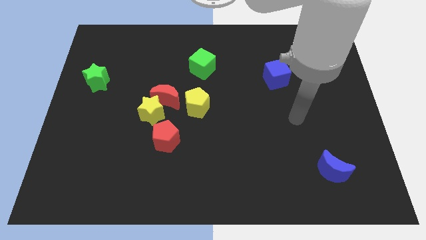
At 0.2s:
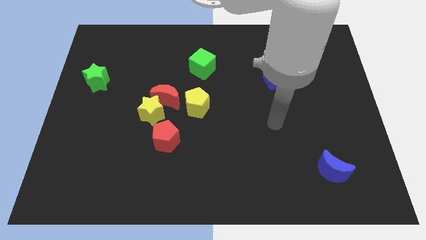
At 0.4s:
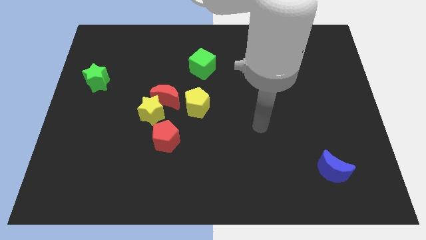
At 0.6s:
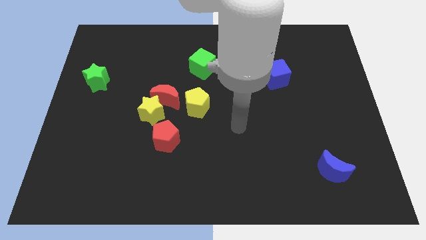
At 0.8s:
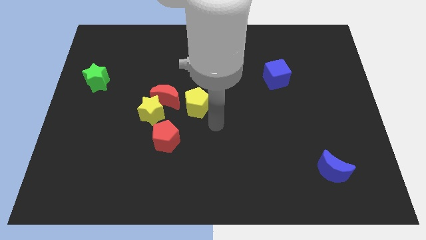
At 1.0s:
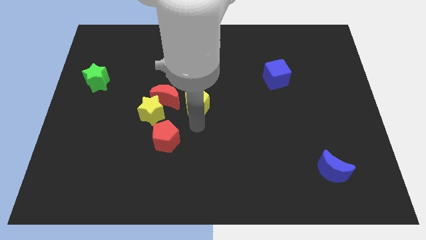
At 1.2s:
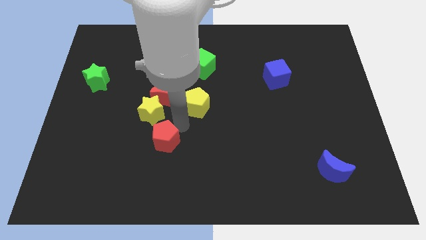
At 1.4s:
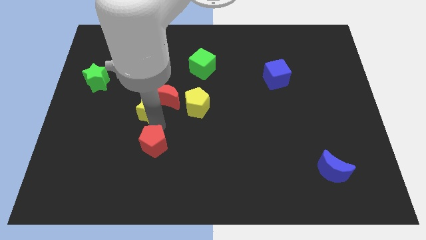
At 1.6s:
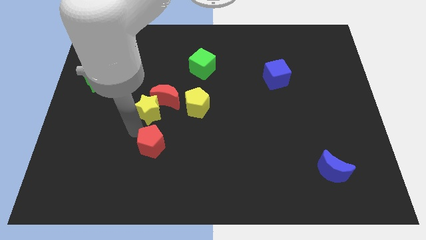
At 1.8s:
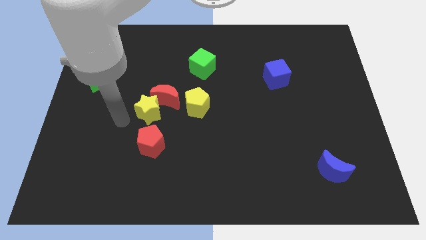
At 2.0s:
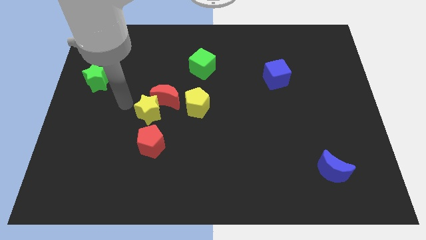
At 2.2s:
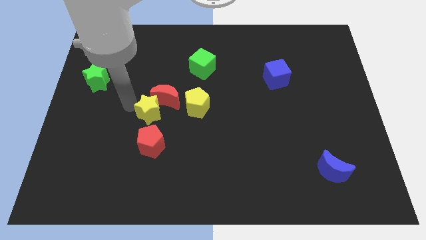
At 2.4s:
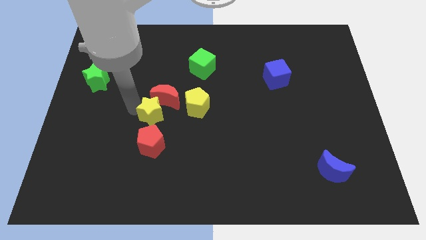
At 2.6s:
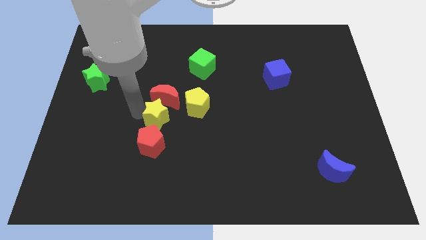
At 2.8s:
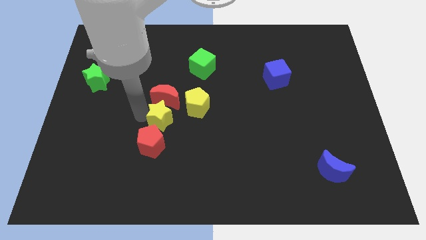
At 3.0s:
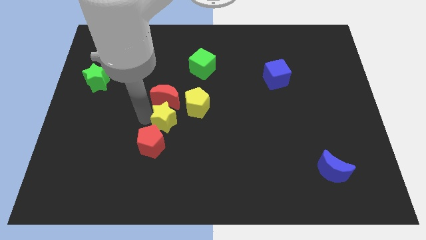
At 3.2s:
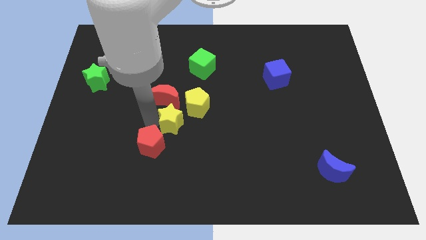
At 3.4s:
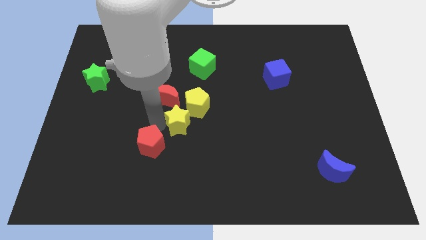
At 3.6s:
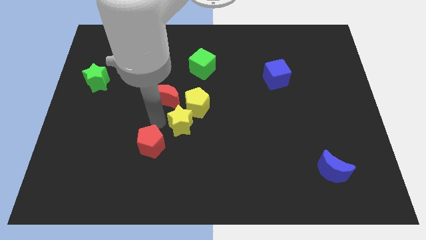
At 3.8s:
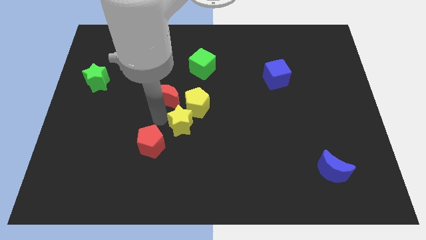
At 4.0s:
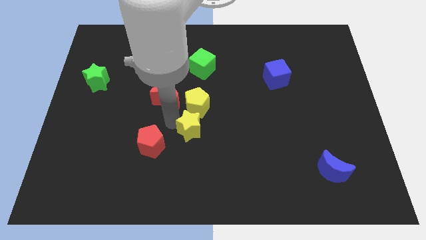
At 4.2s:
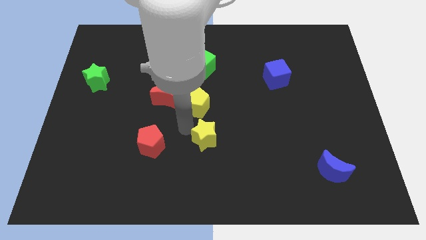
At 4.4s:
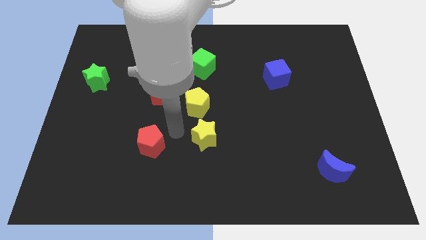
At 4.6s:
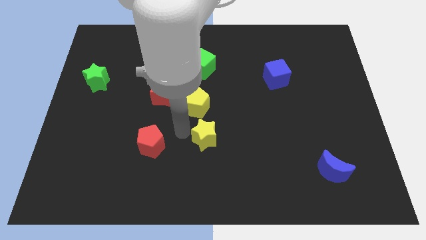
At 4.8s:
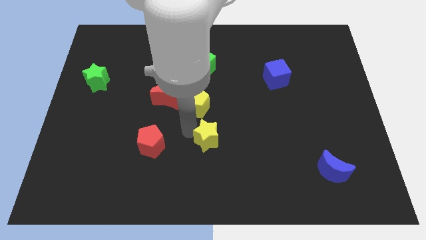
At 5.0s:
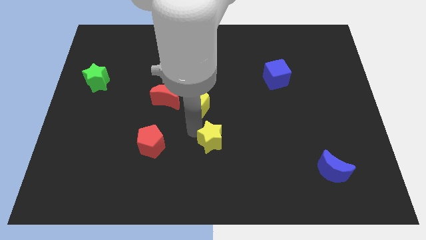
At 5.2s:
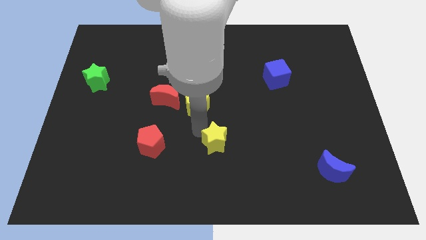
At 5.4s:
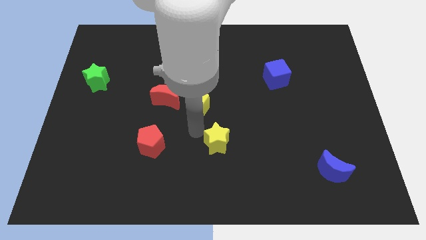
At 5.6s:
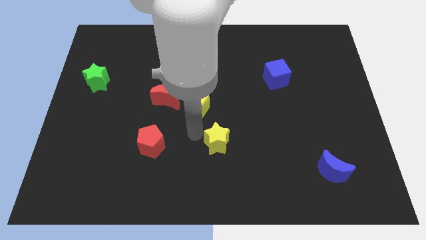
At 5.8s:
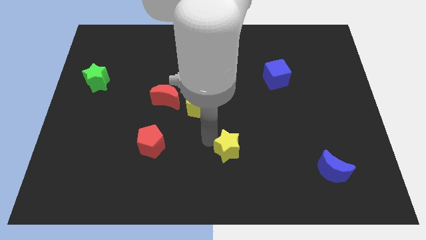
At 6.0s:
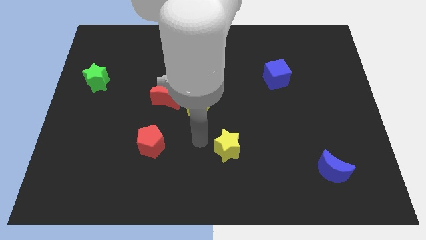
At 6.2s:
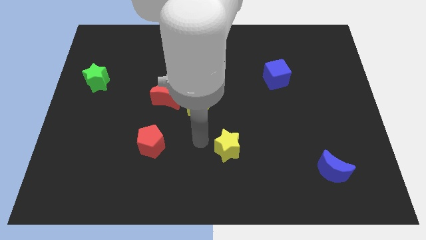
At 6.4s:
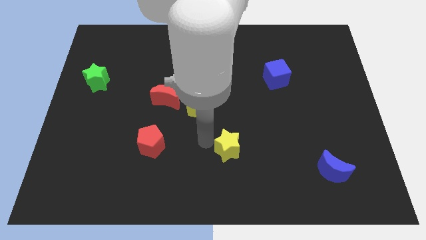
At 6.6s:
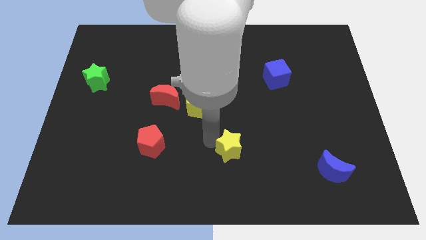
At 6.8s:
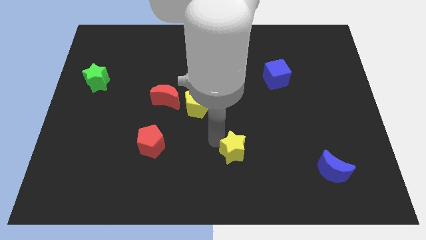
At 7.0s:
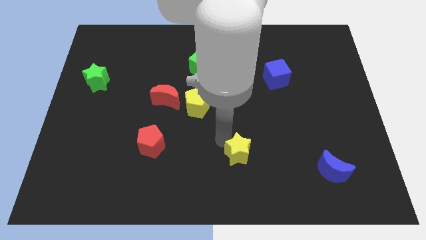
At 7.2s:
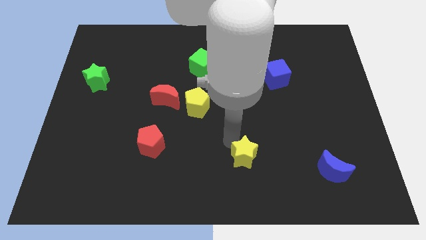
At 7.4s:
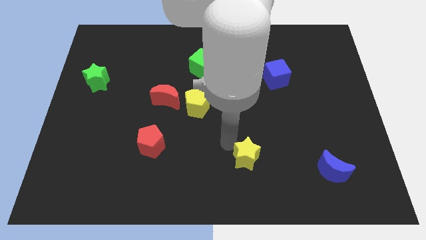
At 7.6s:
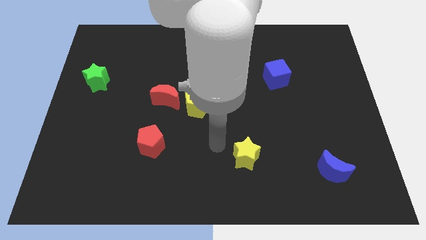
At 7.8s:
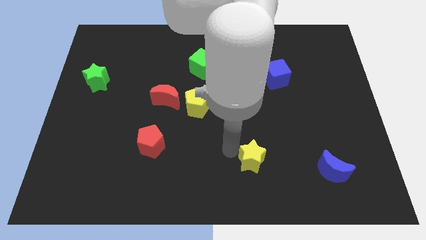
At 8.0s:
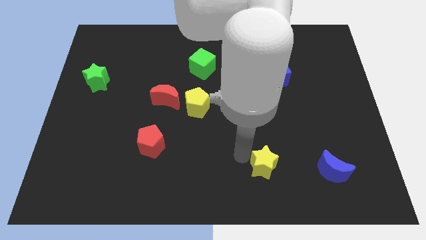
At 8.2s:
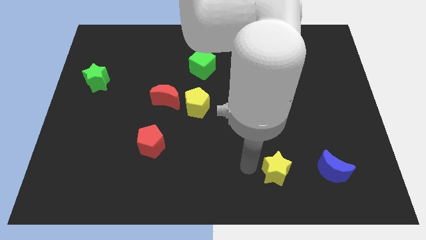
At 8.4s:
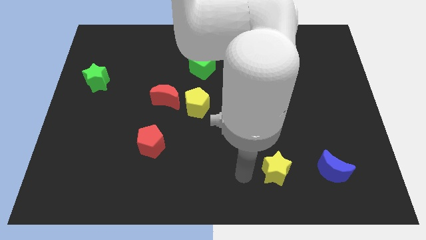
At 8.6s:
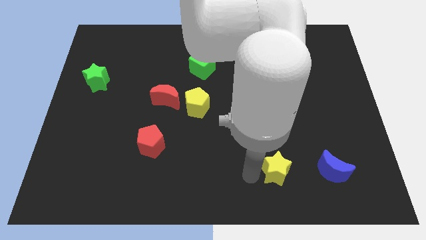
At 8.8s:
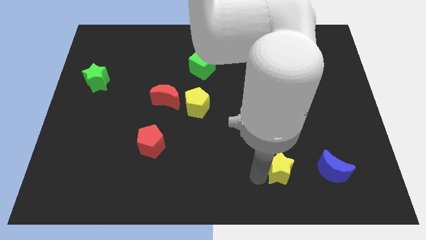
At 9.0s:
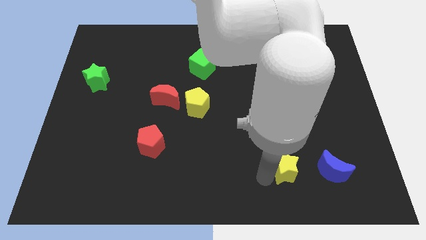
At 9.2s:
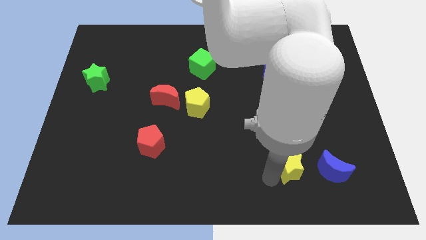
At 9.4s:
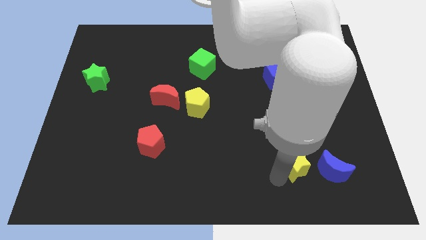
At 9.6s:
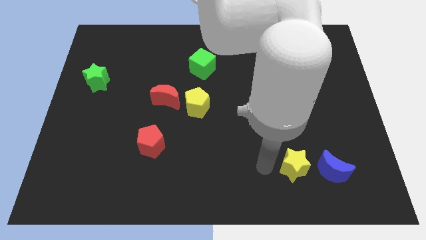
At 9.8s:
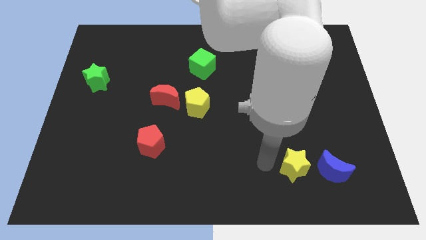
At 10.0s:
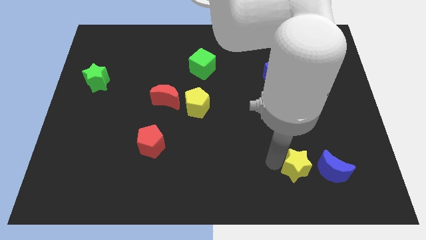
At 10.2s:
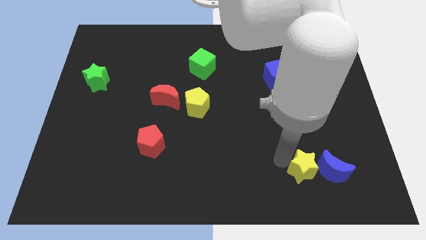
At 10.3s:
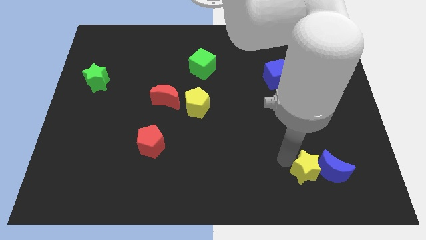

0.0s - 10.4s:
push the yellow star to the blue moon

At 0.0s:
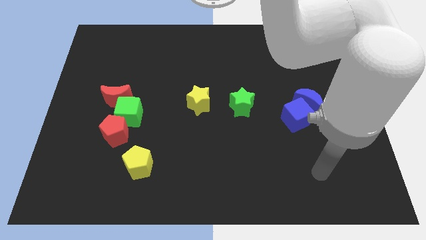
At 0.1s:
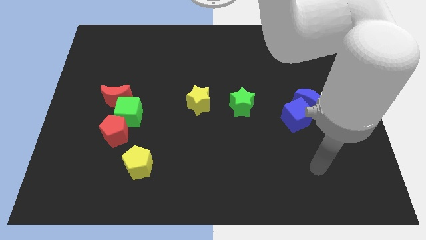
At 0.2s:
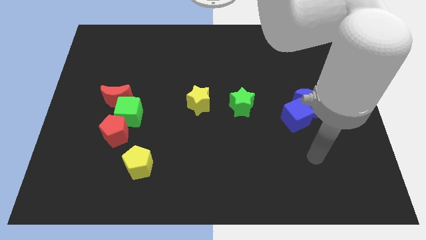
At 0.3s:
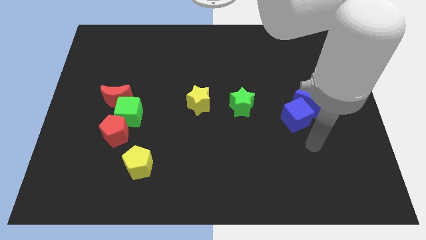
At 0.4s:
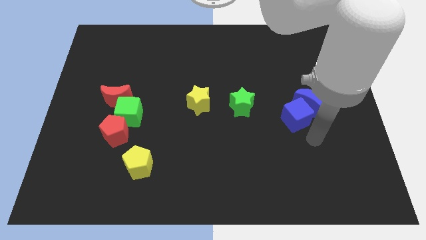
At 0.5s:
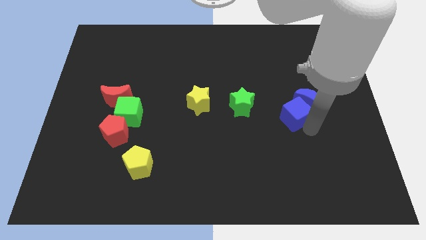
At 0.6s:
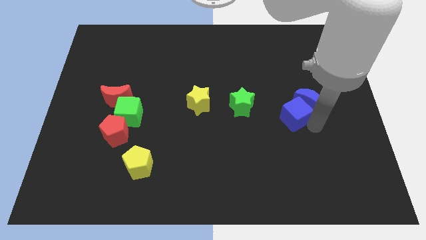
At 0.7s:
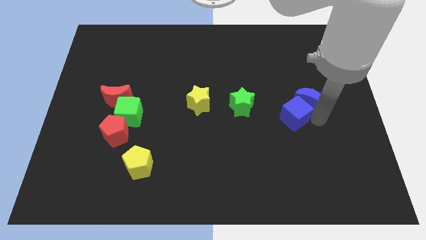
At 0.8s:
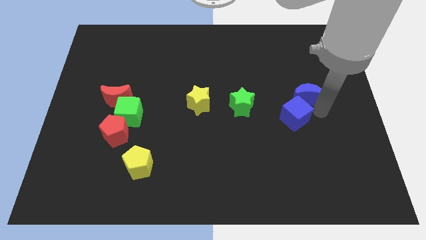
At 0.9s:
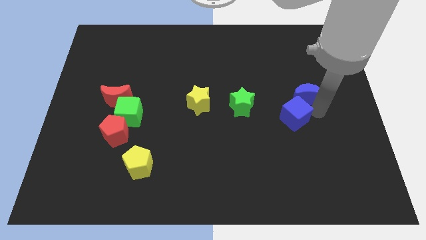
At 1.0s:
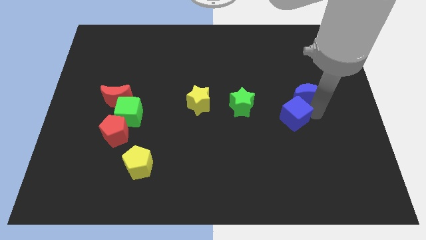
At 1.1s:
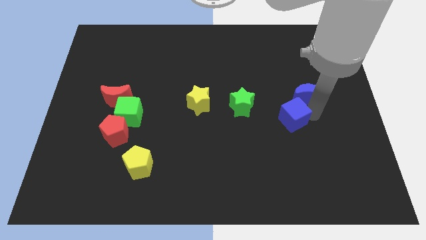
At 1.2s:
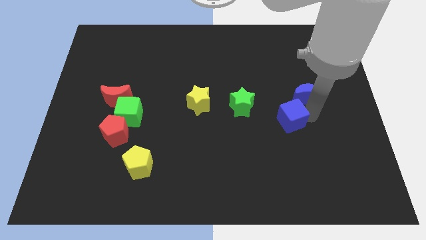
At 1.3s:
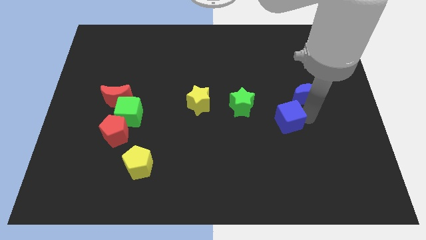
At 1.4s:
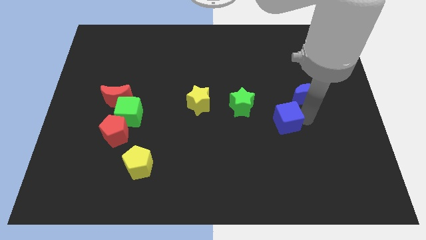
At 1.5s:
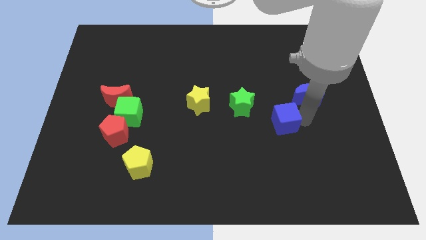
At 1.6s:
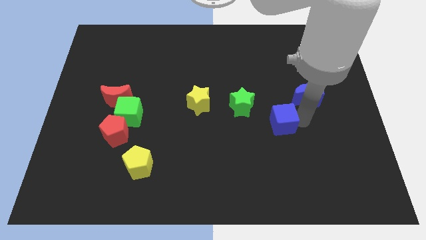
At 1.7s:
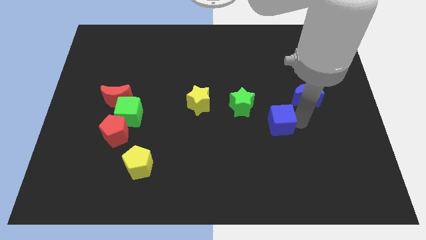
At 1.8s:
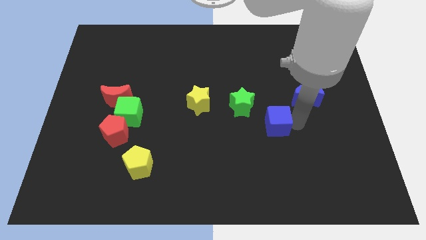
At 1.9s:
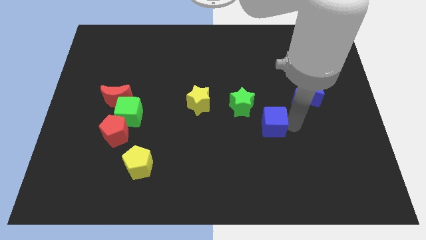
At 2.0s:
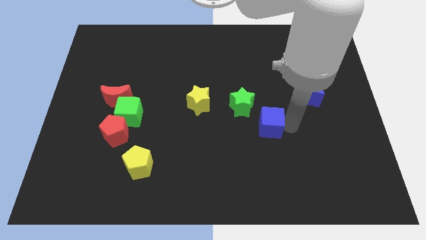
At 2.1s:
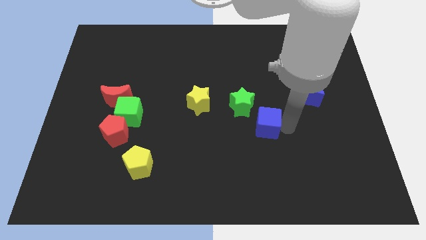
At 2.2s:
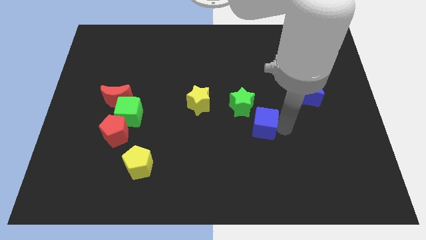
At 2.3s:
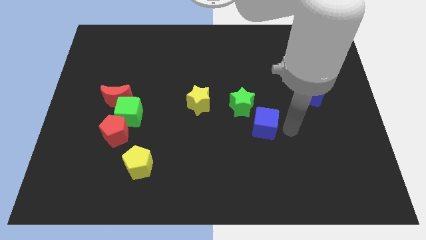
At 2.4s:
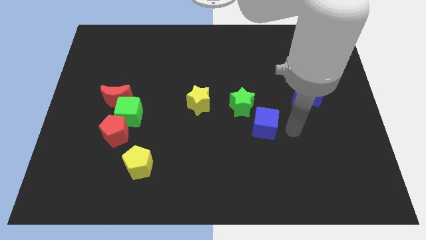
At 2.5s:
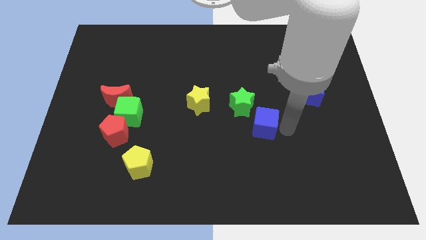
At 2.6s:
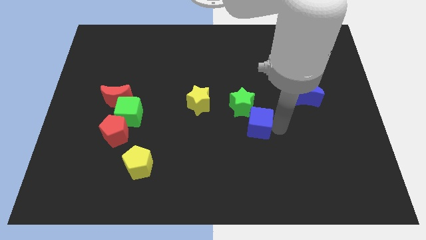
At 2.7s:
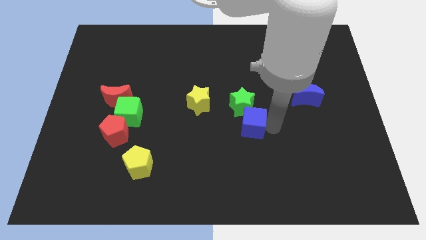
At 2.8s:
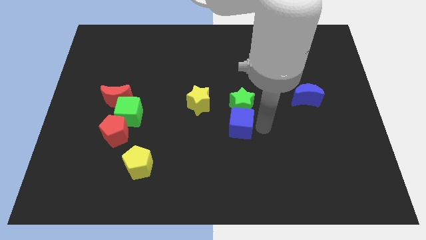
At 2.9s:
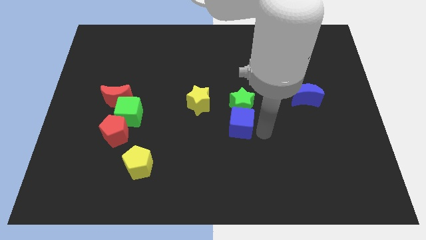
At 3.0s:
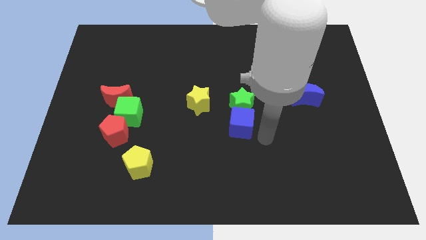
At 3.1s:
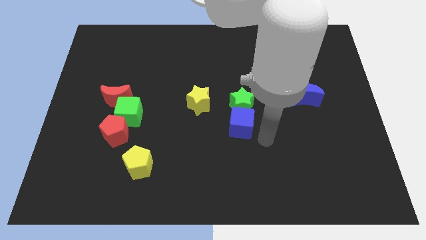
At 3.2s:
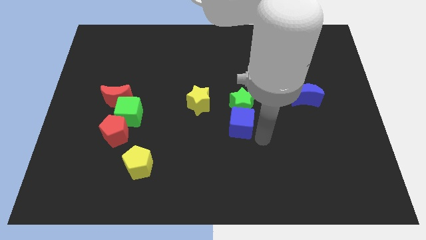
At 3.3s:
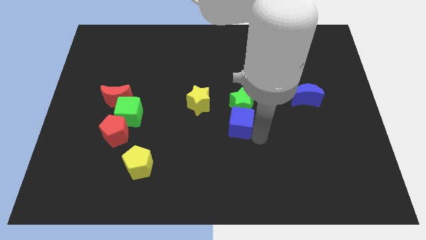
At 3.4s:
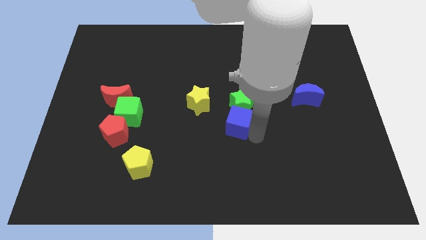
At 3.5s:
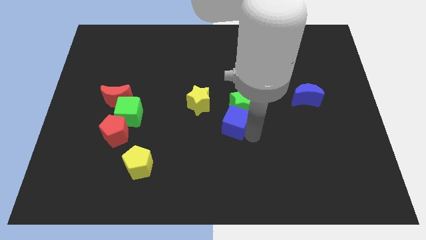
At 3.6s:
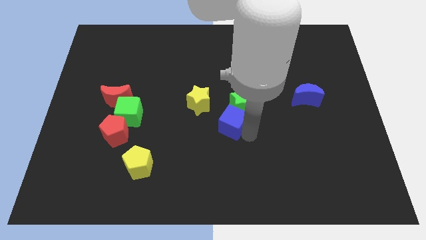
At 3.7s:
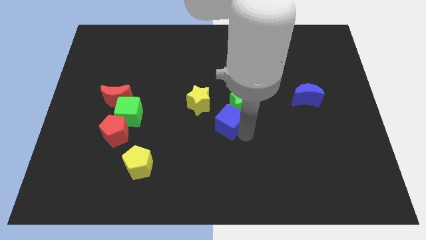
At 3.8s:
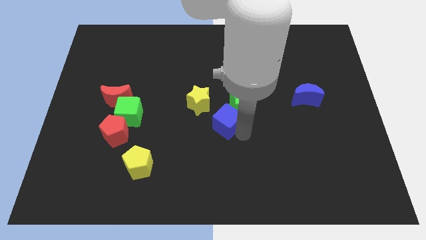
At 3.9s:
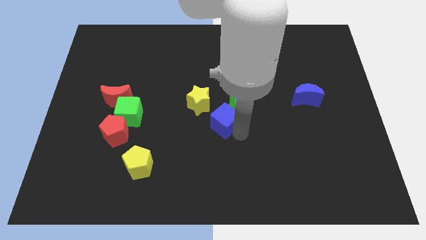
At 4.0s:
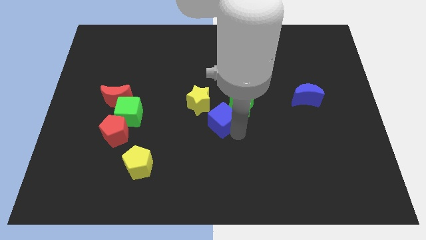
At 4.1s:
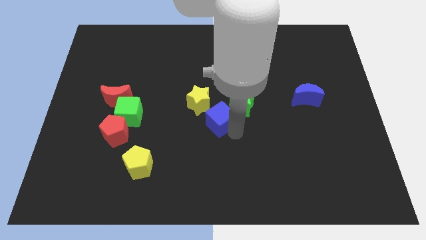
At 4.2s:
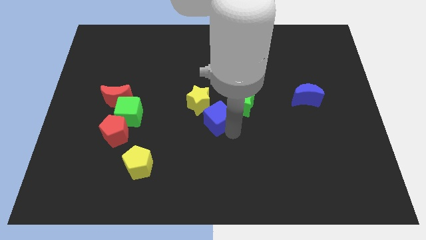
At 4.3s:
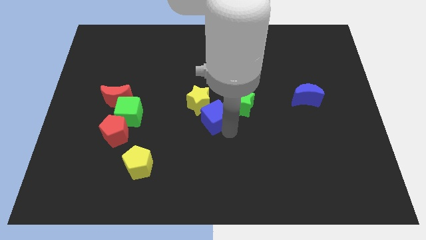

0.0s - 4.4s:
move the blue cube close to the yellow star
